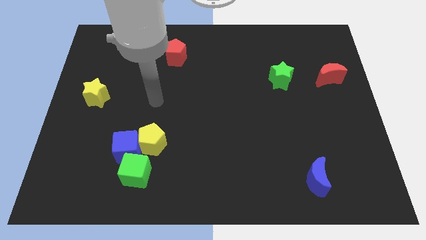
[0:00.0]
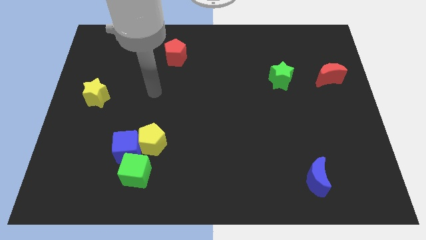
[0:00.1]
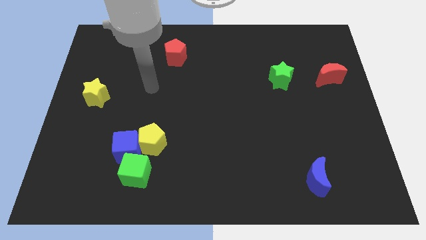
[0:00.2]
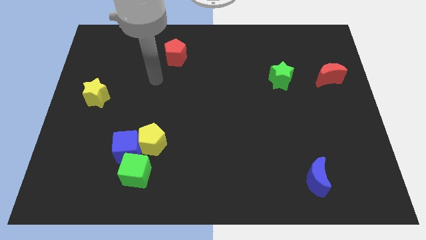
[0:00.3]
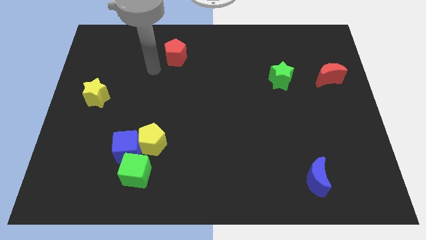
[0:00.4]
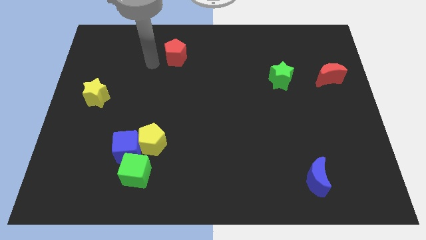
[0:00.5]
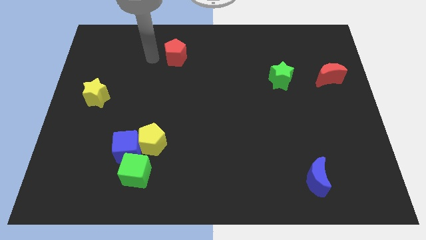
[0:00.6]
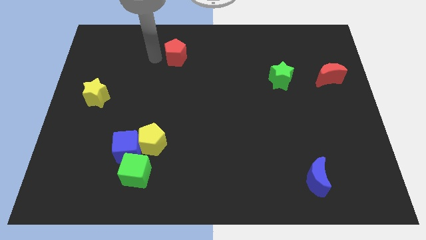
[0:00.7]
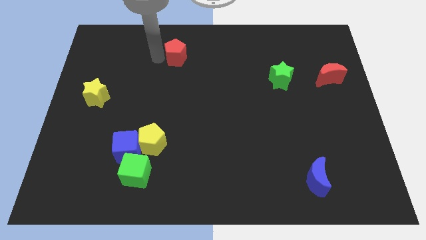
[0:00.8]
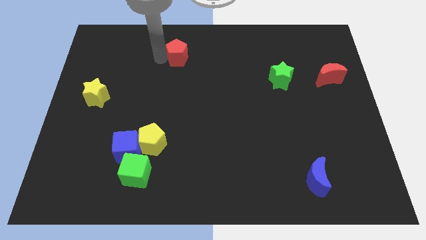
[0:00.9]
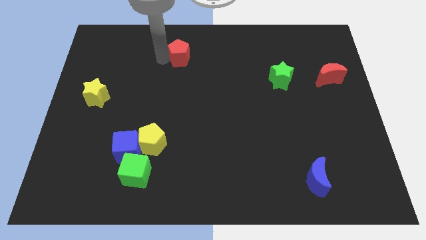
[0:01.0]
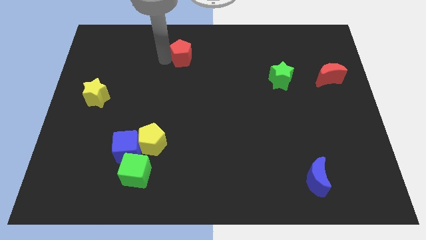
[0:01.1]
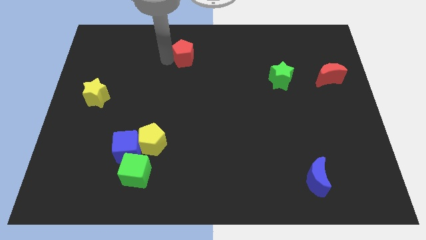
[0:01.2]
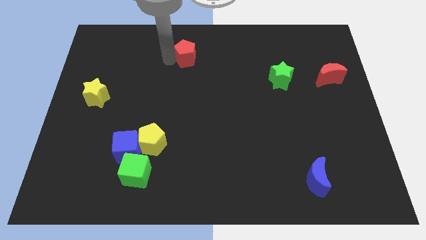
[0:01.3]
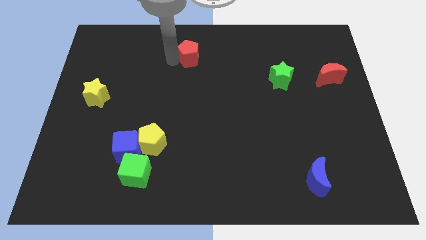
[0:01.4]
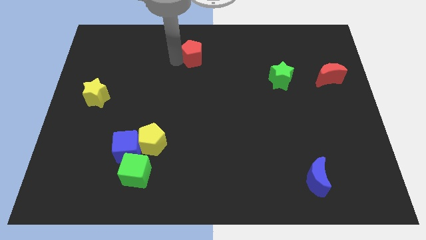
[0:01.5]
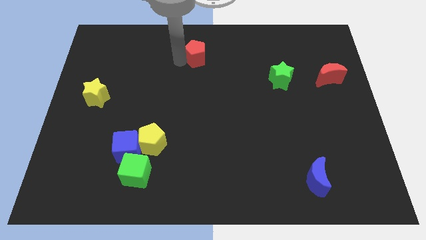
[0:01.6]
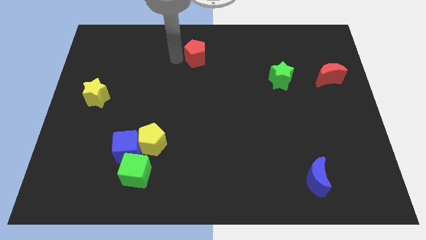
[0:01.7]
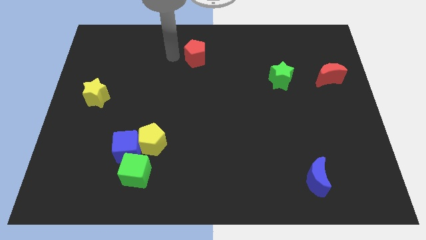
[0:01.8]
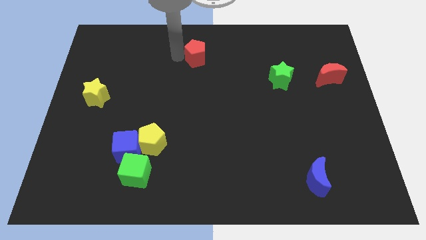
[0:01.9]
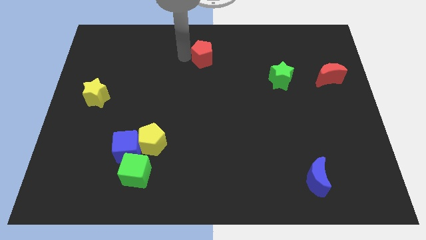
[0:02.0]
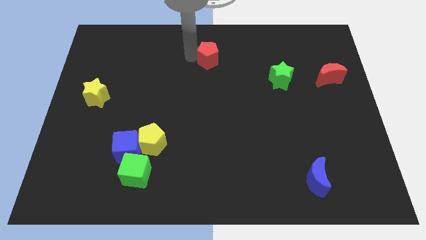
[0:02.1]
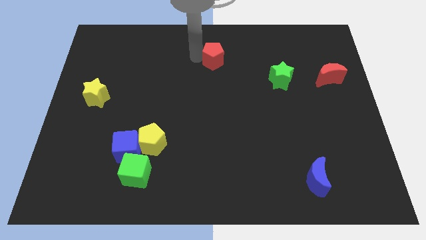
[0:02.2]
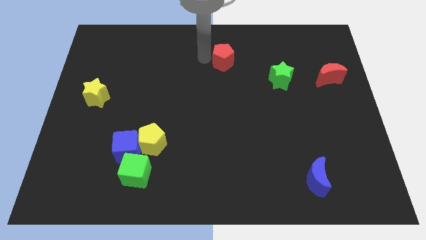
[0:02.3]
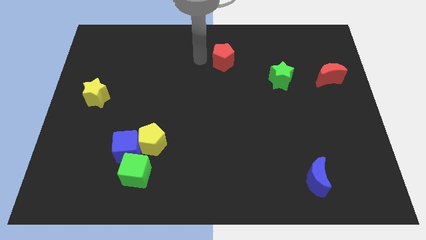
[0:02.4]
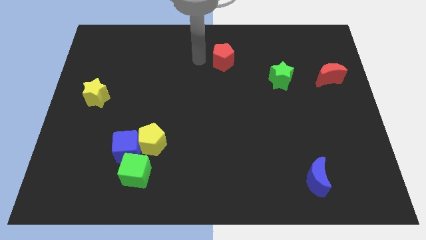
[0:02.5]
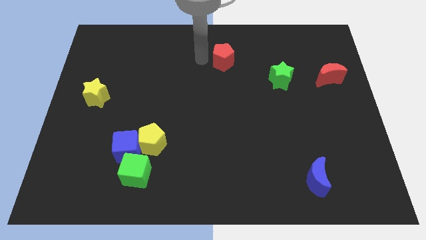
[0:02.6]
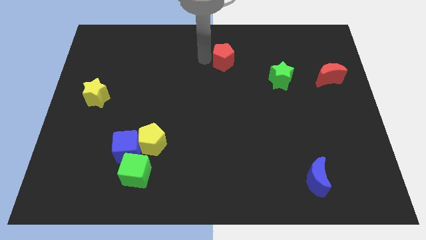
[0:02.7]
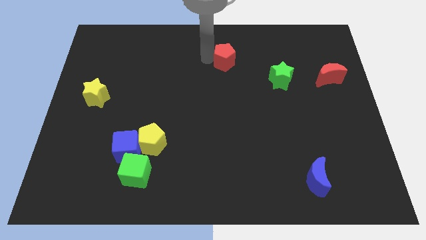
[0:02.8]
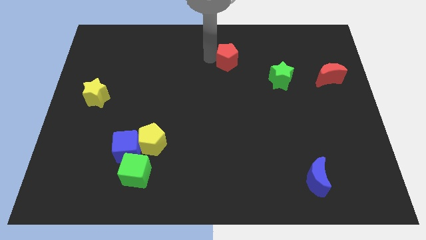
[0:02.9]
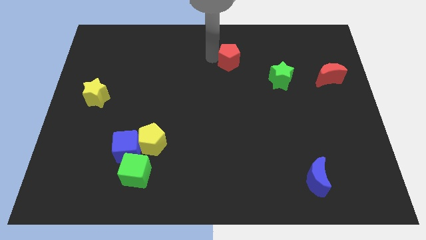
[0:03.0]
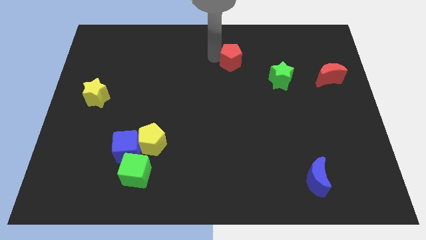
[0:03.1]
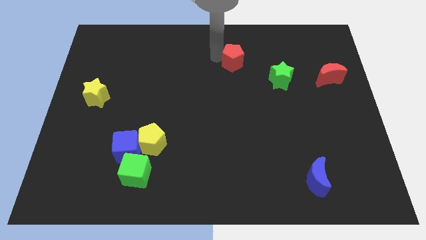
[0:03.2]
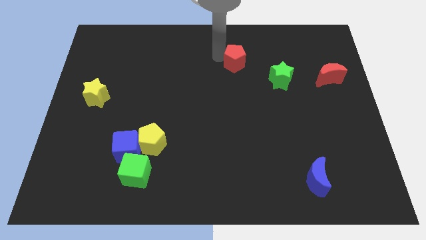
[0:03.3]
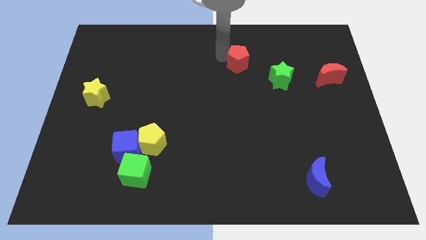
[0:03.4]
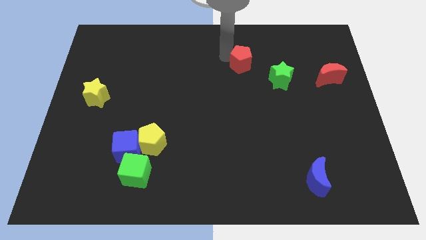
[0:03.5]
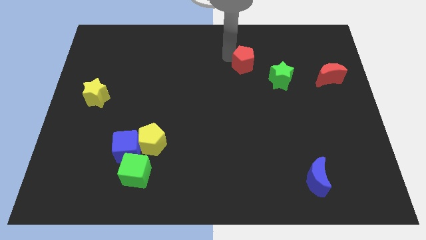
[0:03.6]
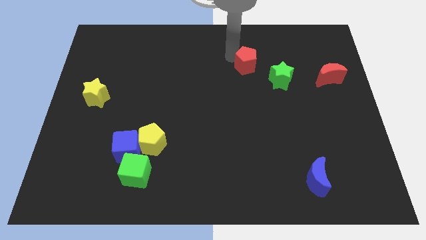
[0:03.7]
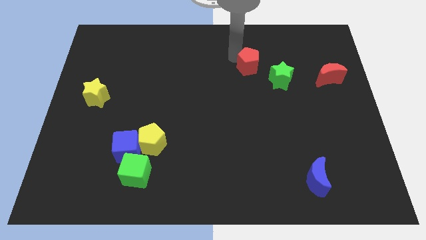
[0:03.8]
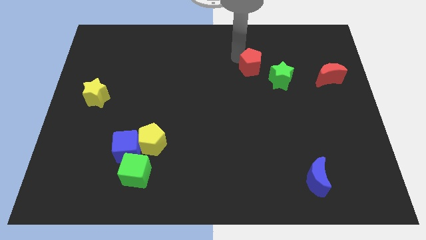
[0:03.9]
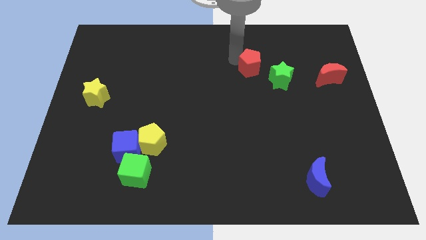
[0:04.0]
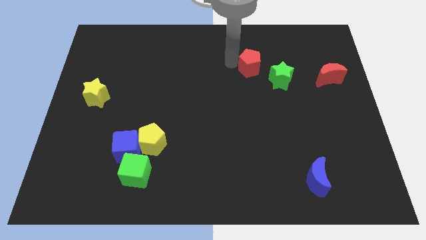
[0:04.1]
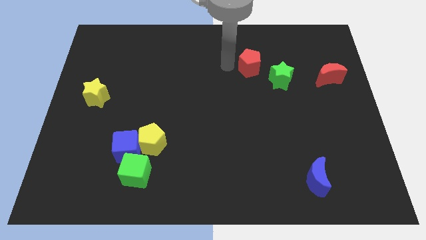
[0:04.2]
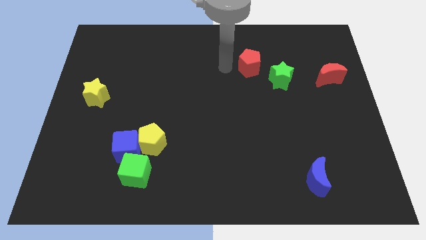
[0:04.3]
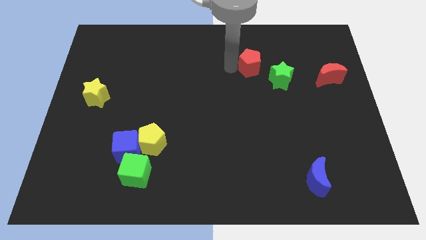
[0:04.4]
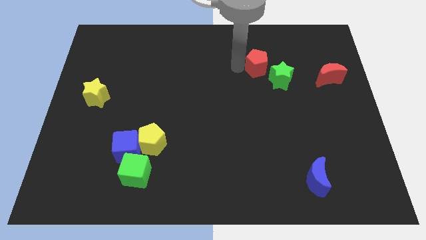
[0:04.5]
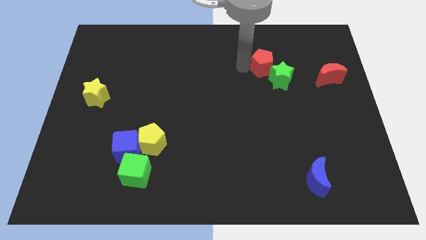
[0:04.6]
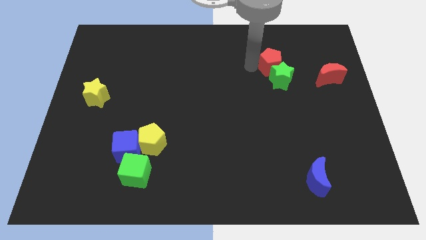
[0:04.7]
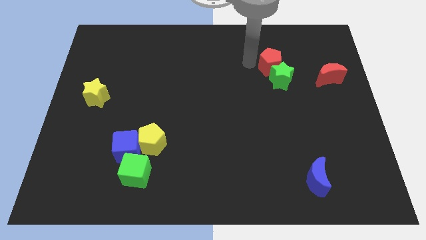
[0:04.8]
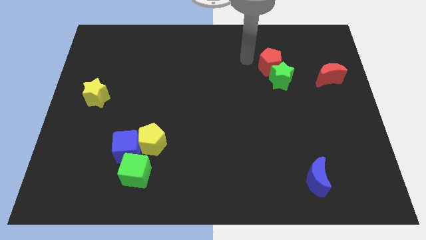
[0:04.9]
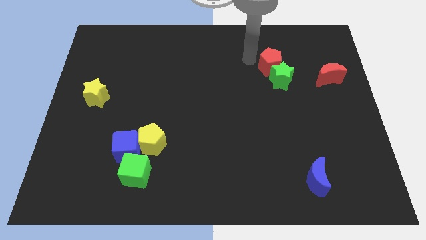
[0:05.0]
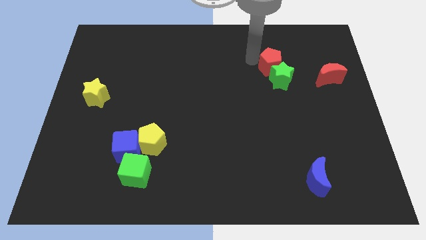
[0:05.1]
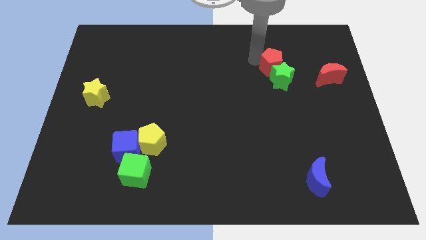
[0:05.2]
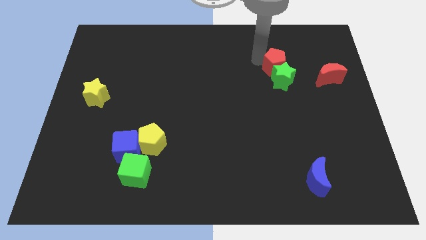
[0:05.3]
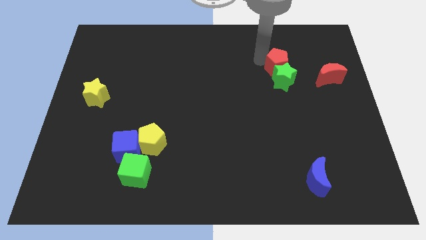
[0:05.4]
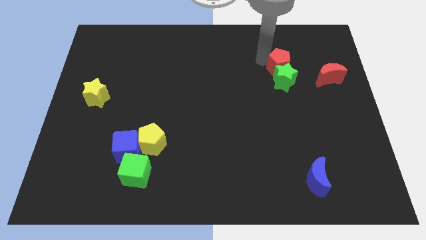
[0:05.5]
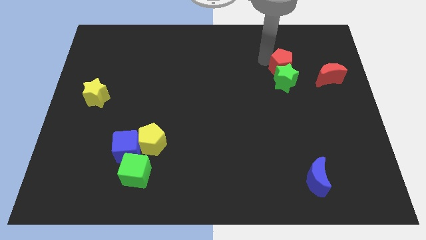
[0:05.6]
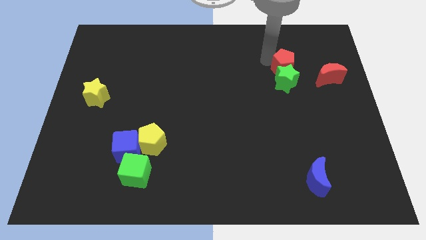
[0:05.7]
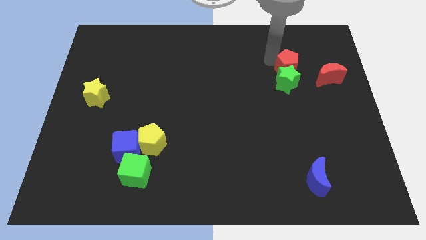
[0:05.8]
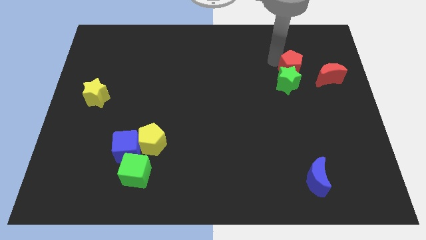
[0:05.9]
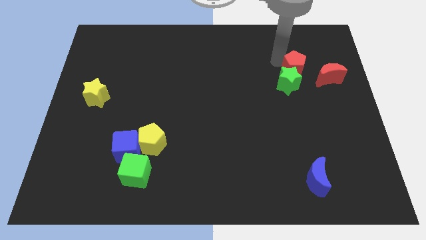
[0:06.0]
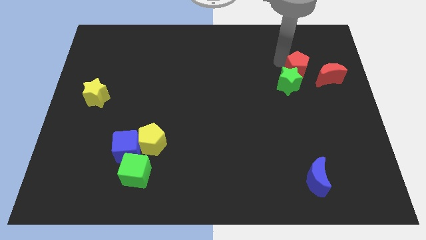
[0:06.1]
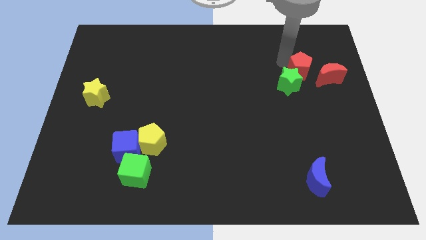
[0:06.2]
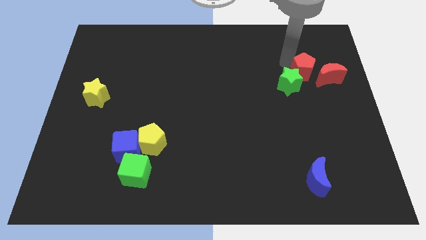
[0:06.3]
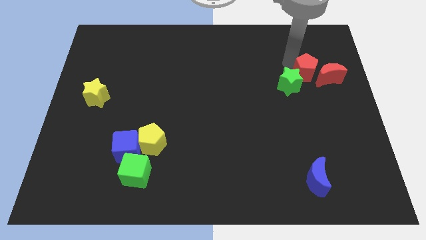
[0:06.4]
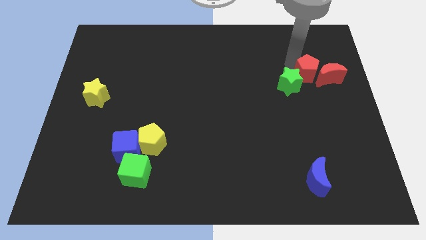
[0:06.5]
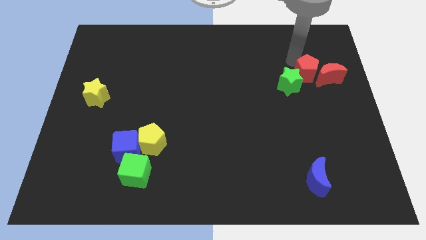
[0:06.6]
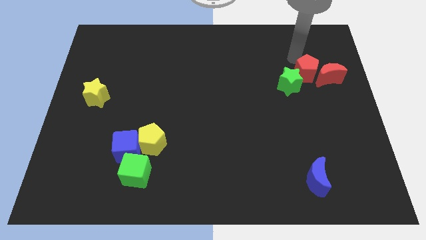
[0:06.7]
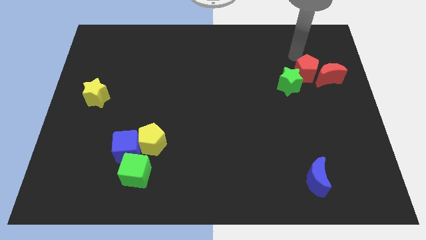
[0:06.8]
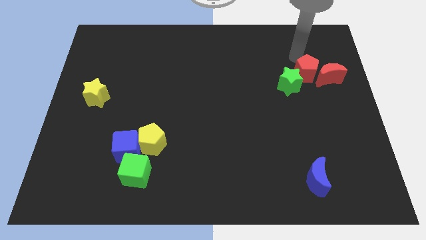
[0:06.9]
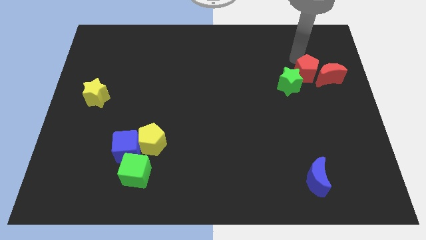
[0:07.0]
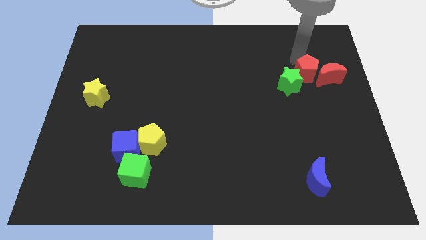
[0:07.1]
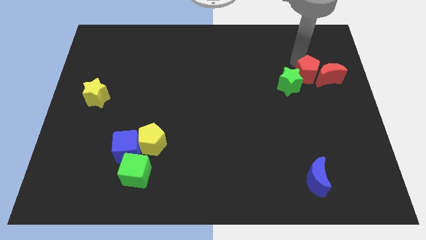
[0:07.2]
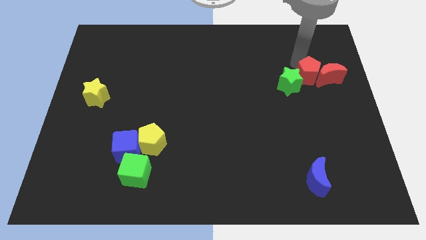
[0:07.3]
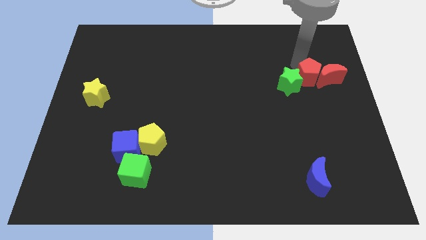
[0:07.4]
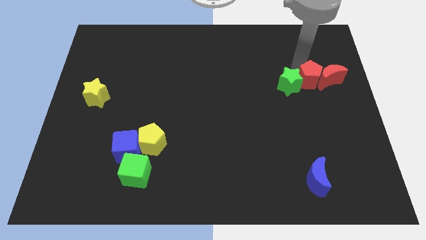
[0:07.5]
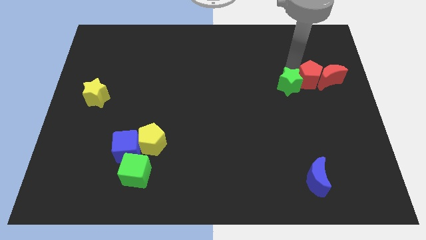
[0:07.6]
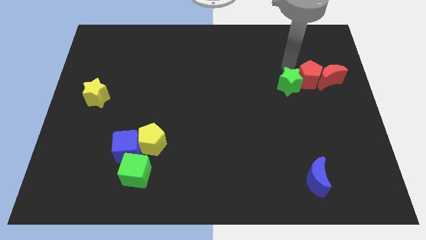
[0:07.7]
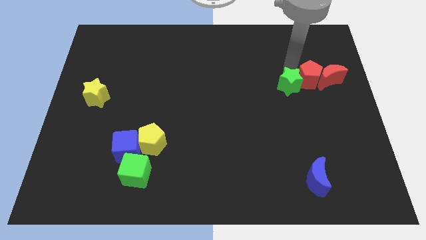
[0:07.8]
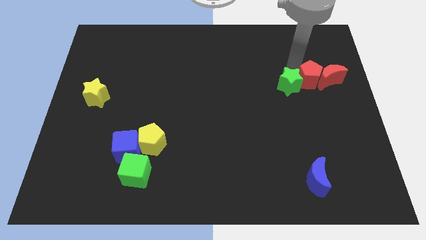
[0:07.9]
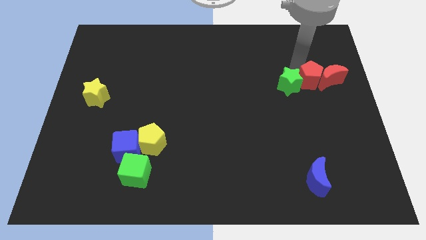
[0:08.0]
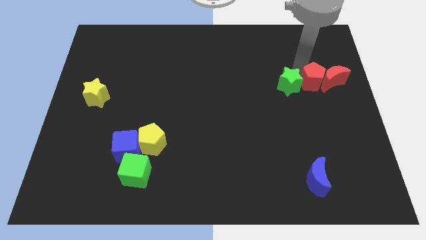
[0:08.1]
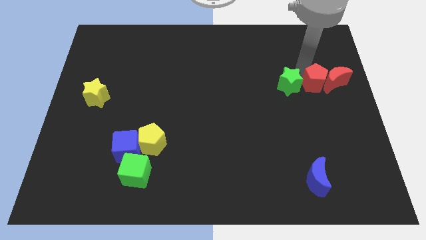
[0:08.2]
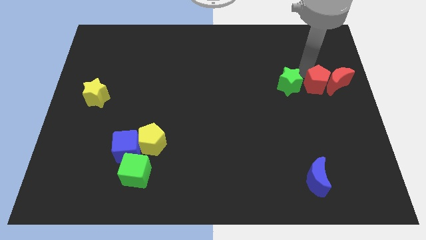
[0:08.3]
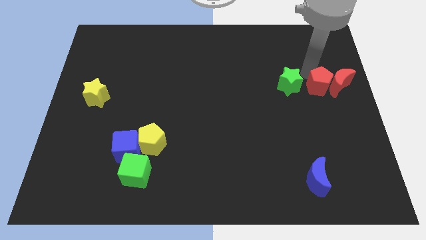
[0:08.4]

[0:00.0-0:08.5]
put the red pentagon to the center right
